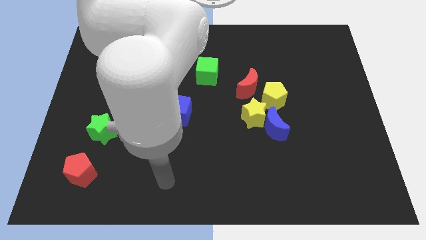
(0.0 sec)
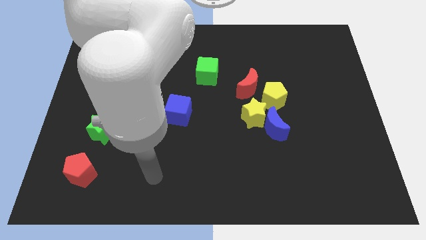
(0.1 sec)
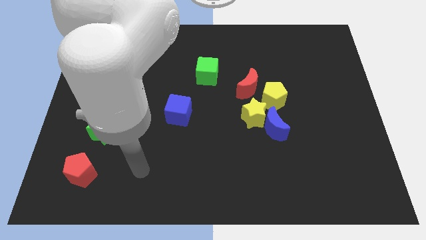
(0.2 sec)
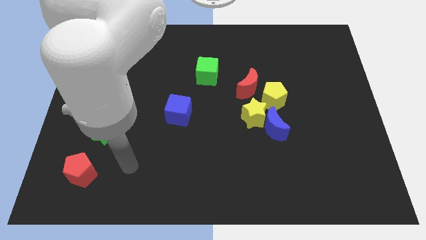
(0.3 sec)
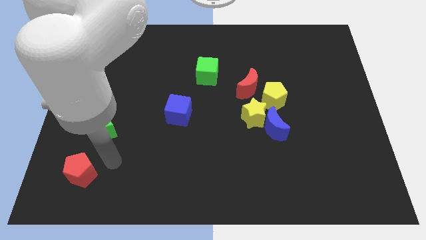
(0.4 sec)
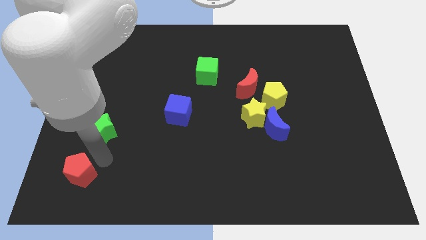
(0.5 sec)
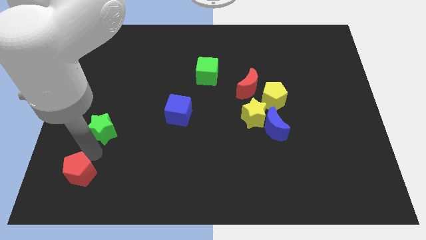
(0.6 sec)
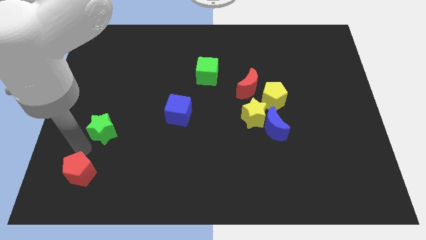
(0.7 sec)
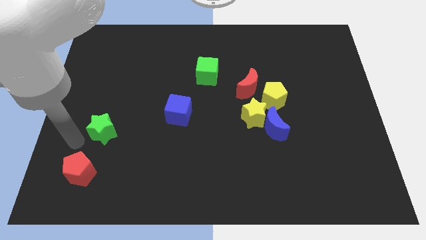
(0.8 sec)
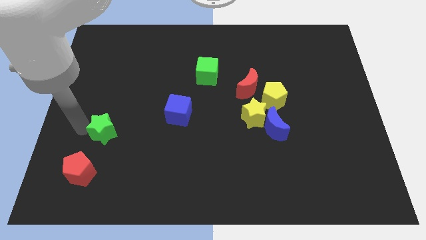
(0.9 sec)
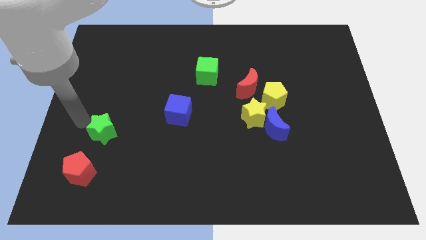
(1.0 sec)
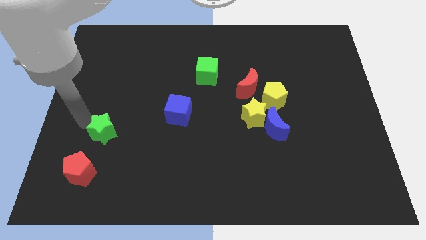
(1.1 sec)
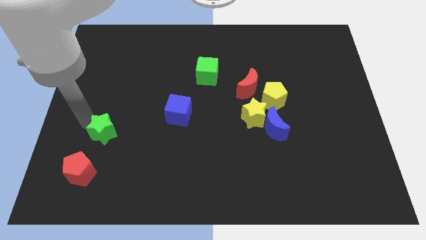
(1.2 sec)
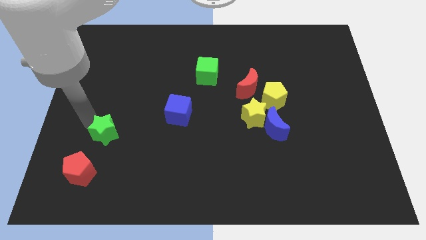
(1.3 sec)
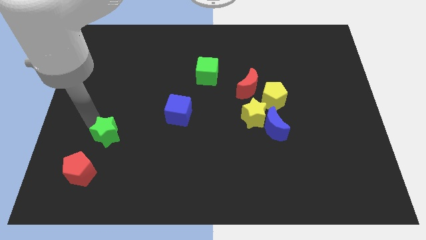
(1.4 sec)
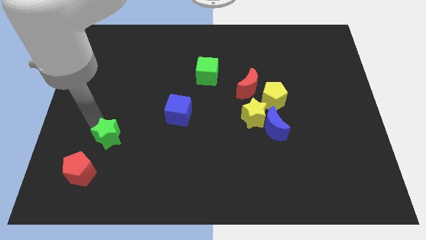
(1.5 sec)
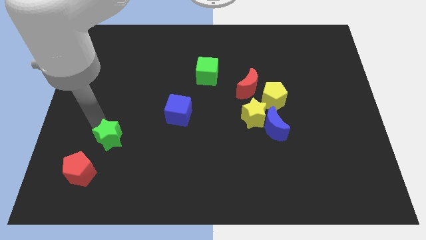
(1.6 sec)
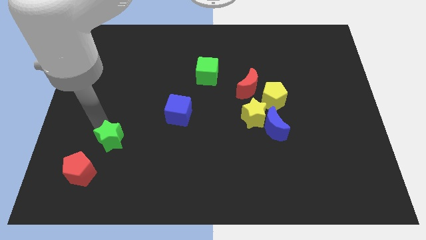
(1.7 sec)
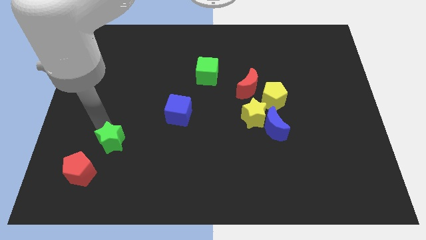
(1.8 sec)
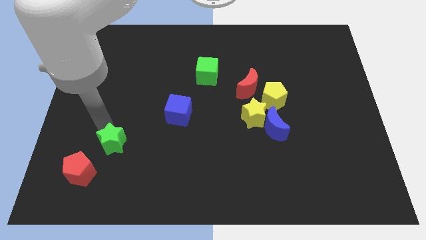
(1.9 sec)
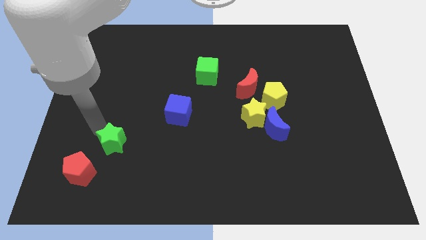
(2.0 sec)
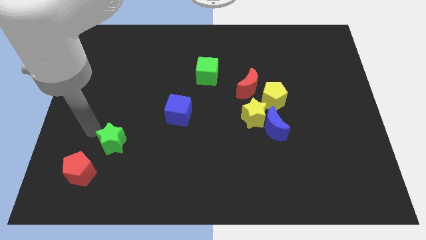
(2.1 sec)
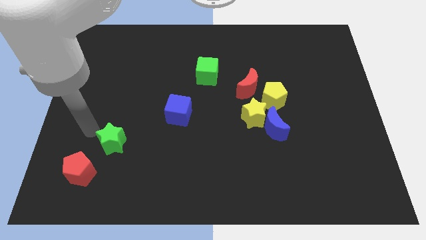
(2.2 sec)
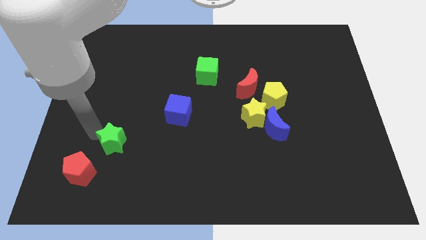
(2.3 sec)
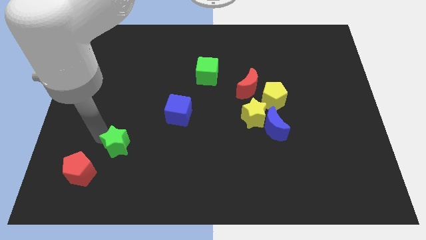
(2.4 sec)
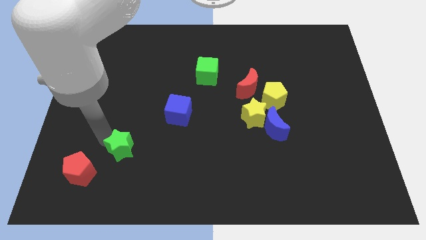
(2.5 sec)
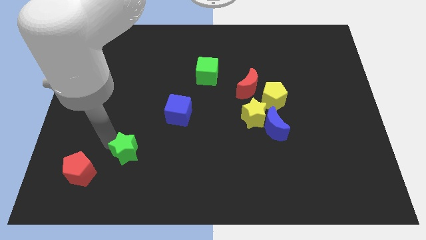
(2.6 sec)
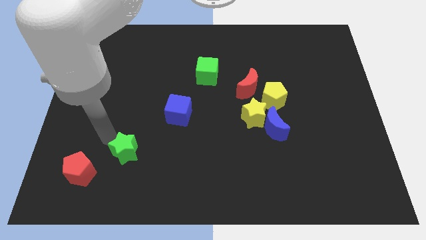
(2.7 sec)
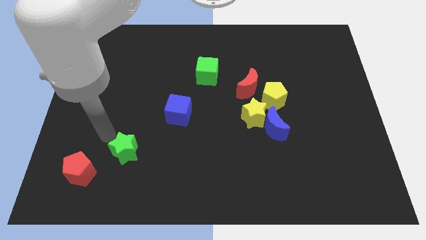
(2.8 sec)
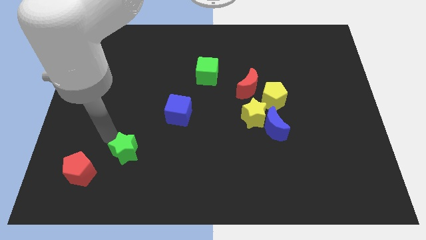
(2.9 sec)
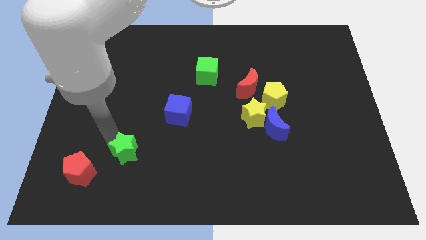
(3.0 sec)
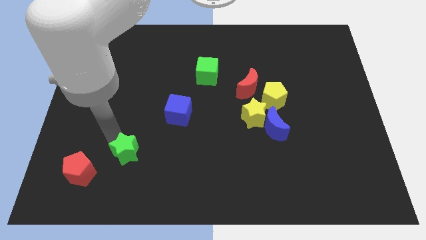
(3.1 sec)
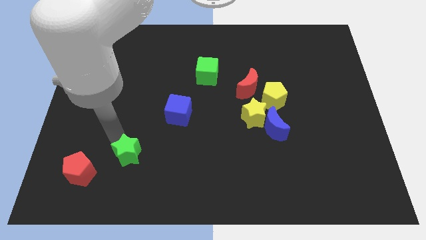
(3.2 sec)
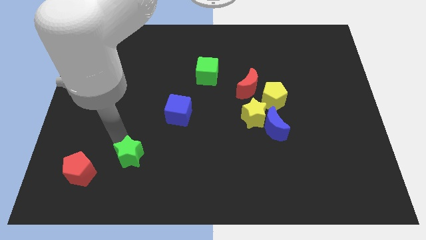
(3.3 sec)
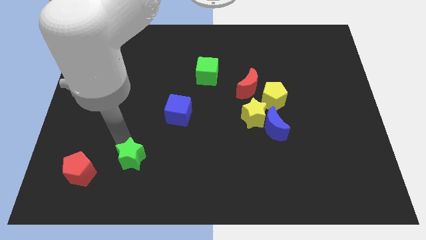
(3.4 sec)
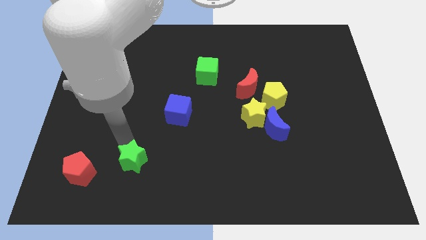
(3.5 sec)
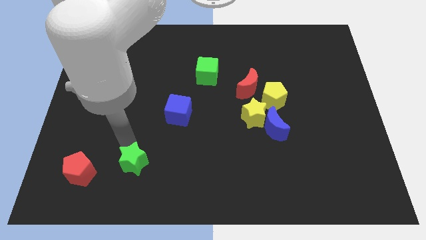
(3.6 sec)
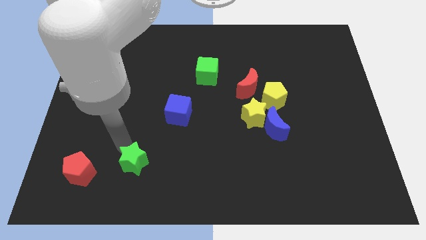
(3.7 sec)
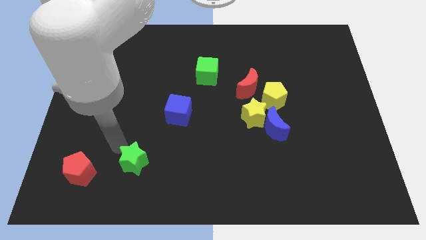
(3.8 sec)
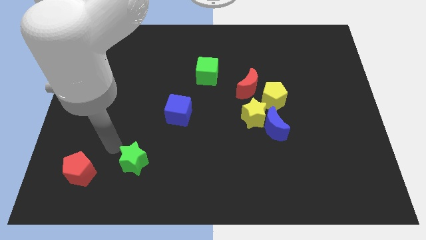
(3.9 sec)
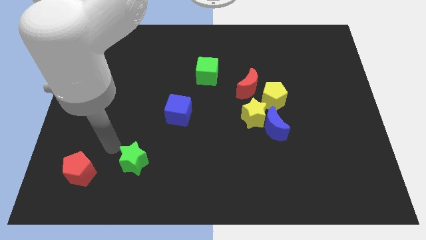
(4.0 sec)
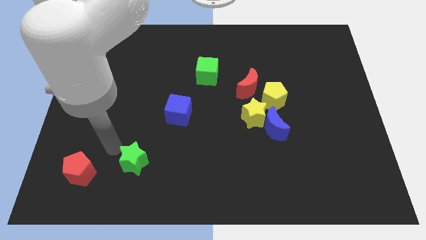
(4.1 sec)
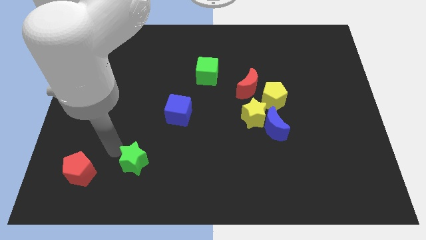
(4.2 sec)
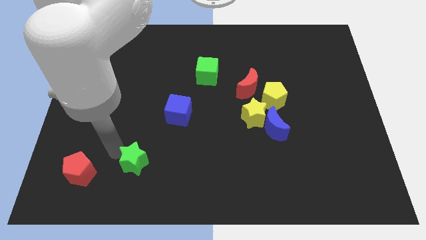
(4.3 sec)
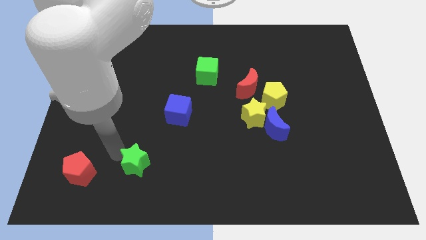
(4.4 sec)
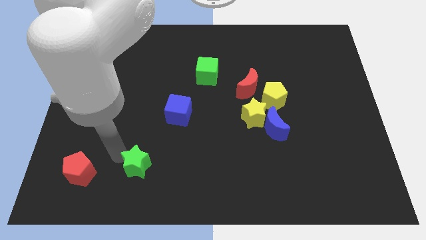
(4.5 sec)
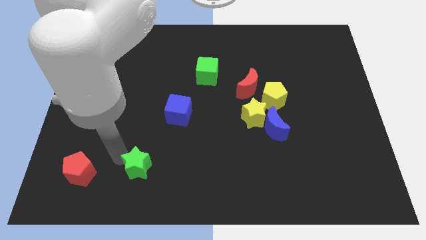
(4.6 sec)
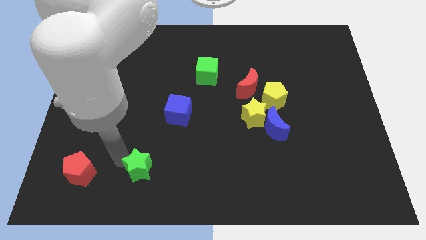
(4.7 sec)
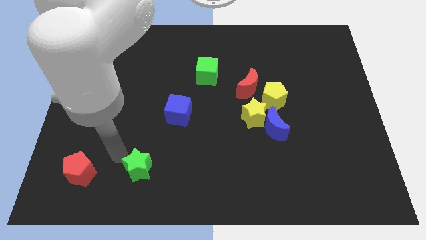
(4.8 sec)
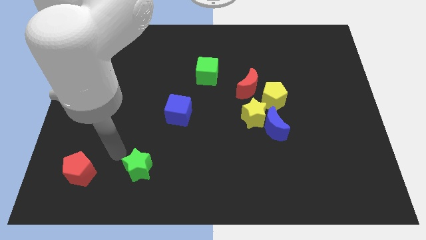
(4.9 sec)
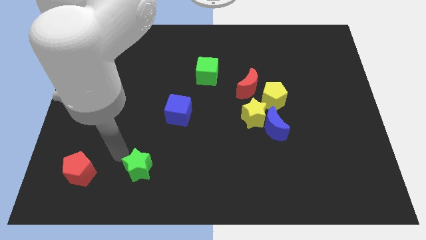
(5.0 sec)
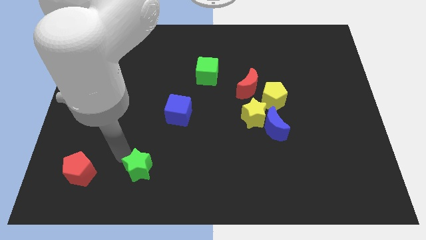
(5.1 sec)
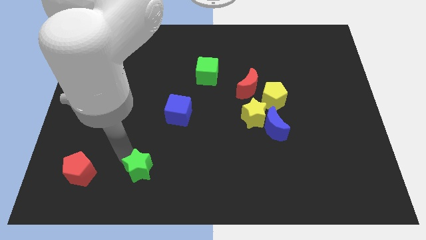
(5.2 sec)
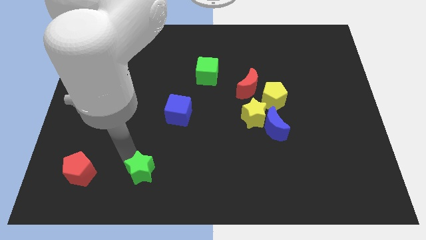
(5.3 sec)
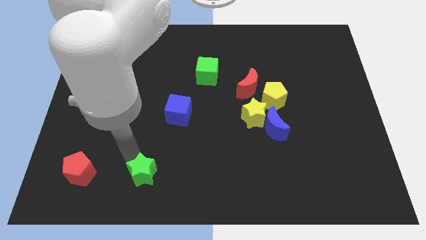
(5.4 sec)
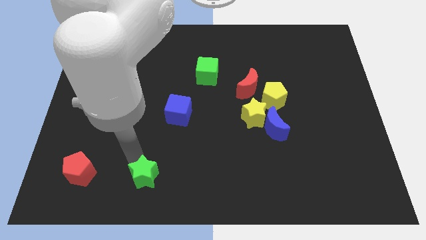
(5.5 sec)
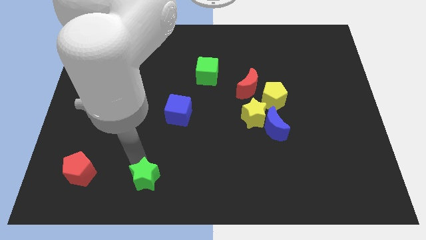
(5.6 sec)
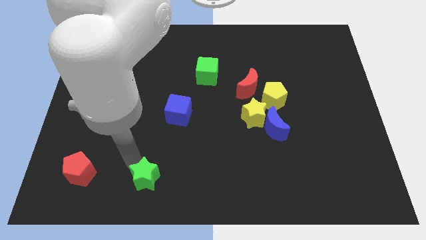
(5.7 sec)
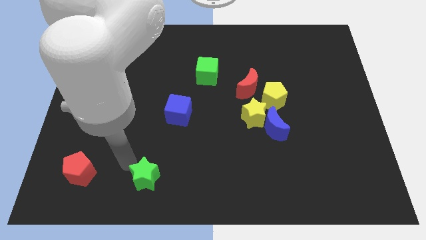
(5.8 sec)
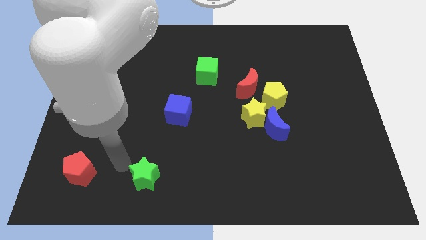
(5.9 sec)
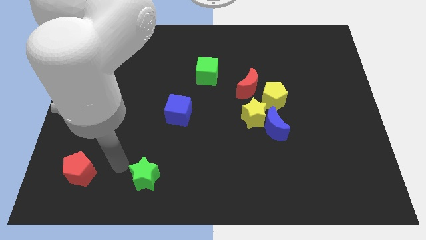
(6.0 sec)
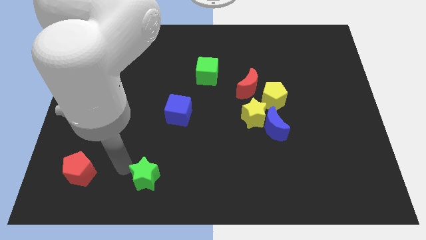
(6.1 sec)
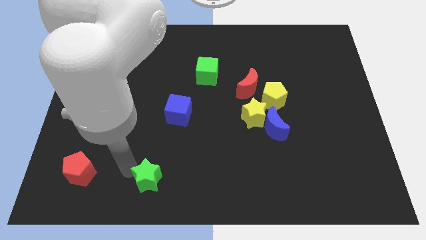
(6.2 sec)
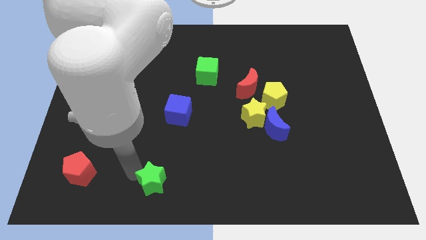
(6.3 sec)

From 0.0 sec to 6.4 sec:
slide the green star to the bottom side
